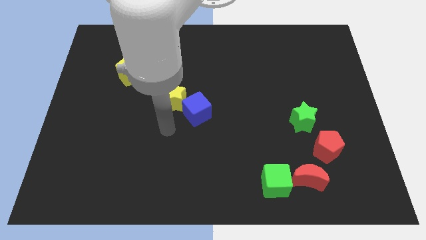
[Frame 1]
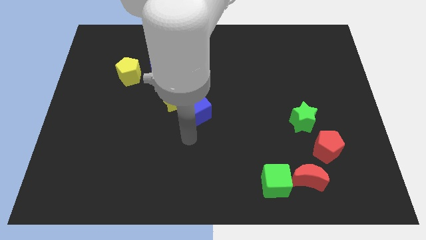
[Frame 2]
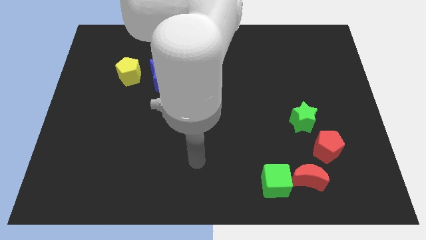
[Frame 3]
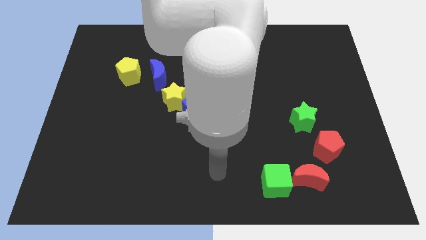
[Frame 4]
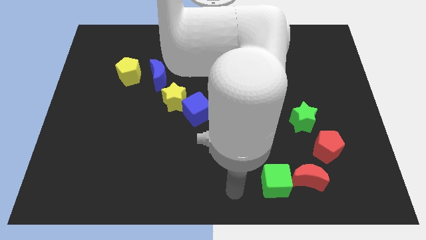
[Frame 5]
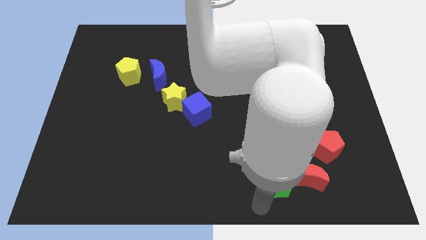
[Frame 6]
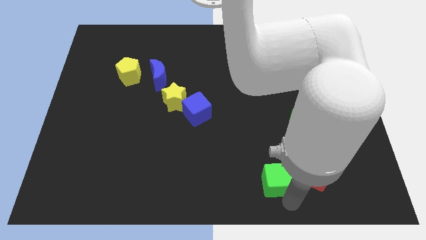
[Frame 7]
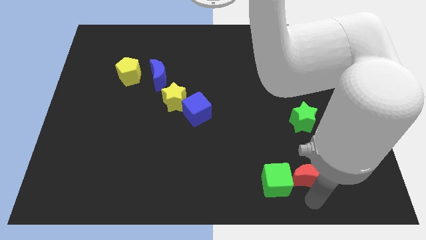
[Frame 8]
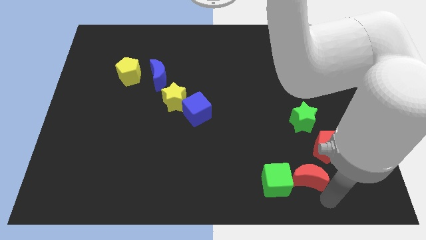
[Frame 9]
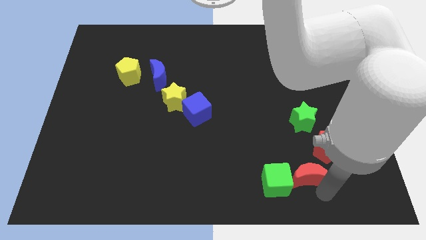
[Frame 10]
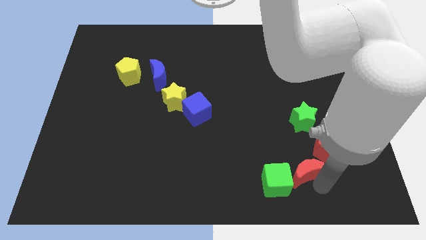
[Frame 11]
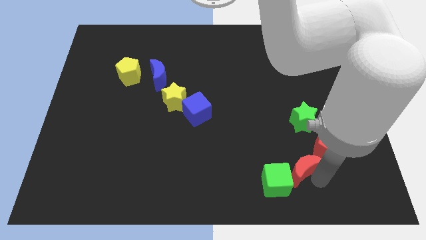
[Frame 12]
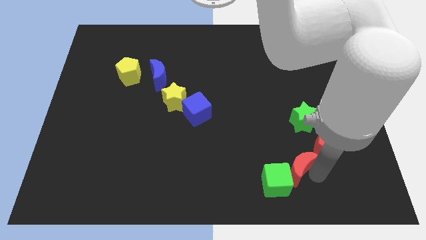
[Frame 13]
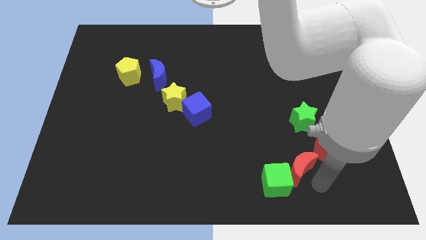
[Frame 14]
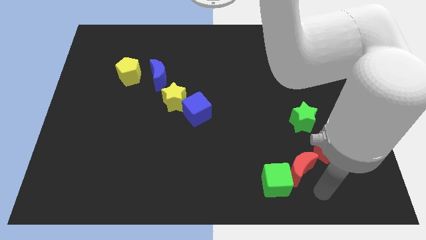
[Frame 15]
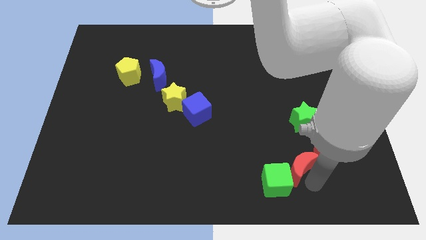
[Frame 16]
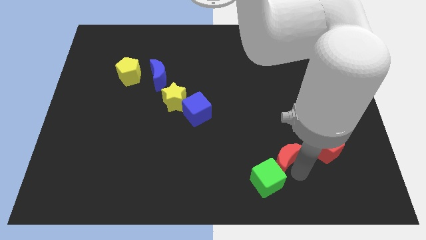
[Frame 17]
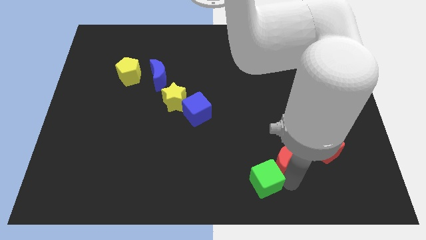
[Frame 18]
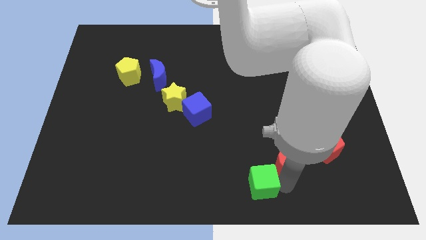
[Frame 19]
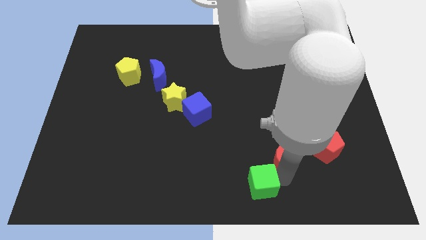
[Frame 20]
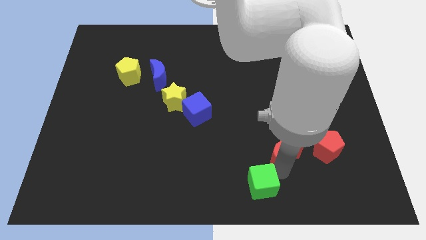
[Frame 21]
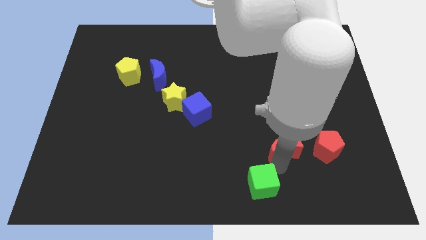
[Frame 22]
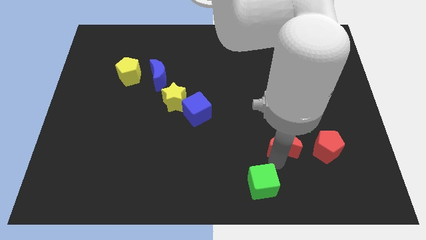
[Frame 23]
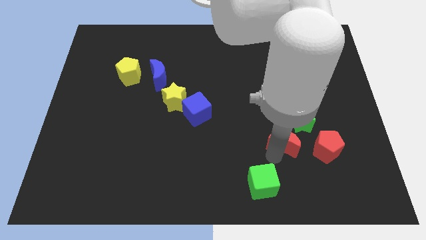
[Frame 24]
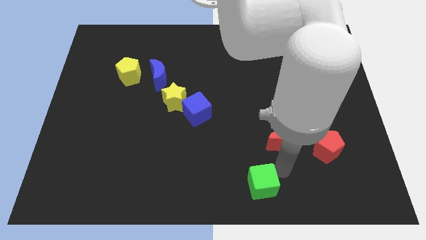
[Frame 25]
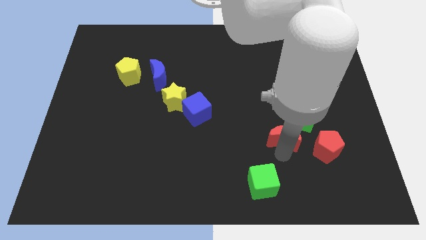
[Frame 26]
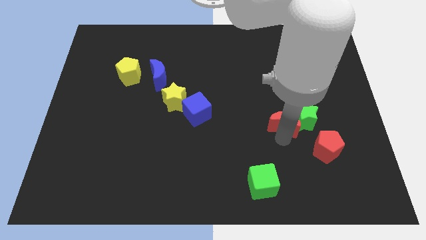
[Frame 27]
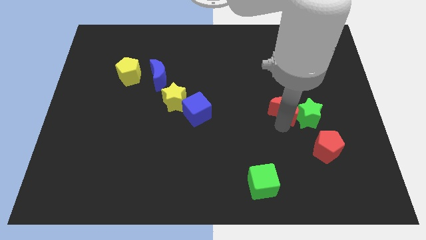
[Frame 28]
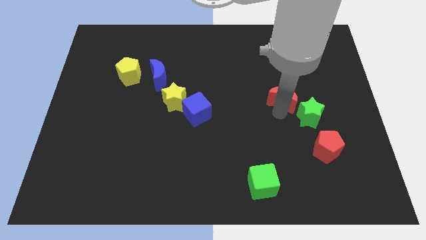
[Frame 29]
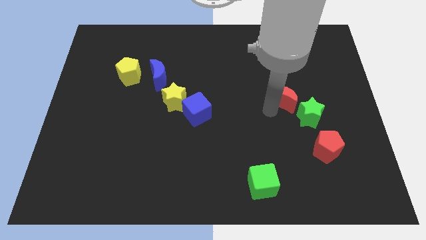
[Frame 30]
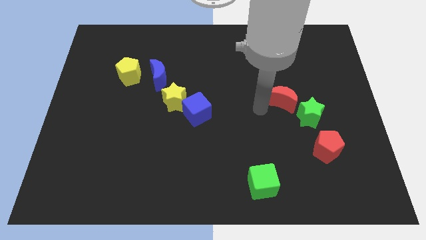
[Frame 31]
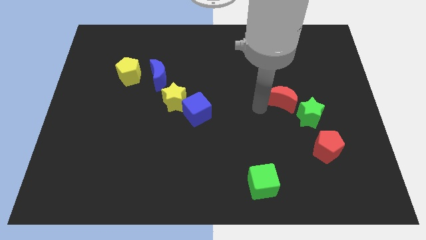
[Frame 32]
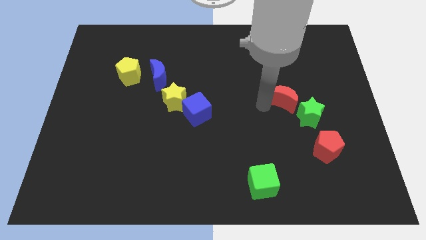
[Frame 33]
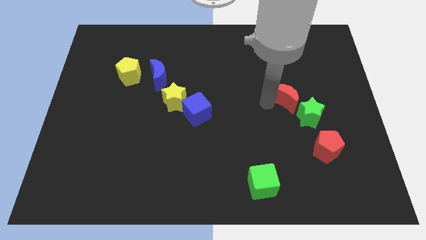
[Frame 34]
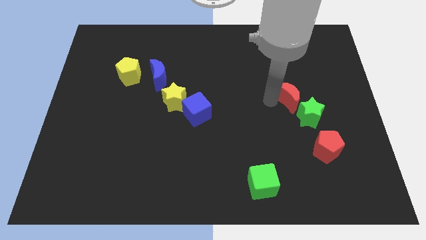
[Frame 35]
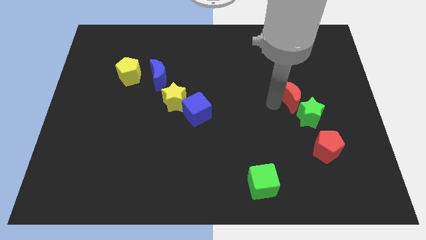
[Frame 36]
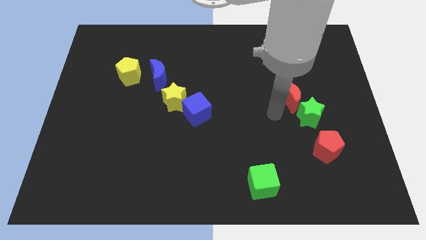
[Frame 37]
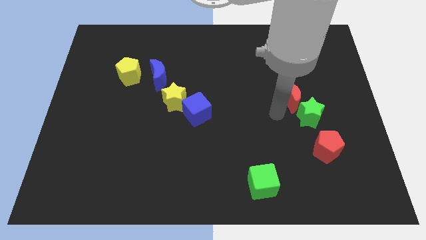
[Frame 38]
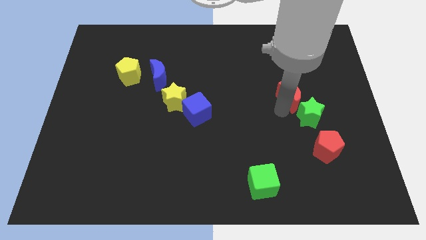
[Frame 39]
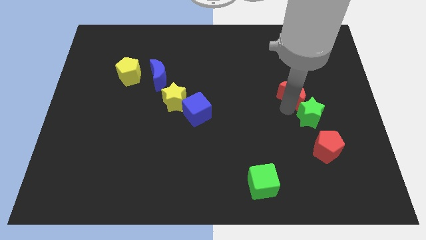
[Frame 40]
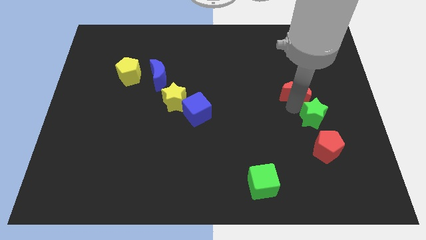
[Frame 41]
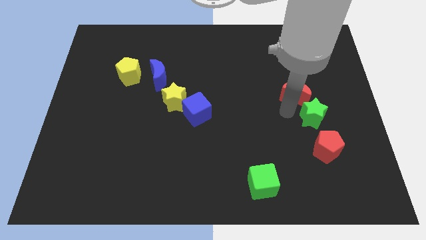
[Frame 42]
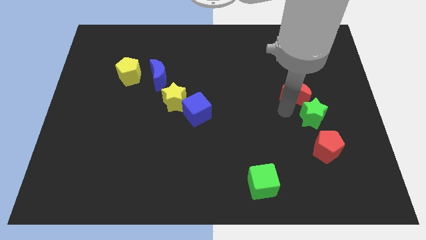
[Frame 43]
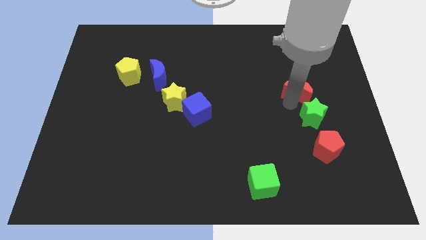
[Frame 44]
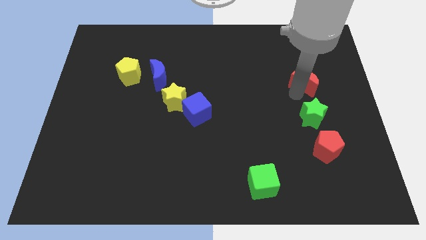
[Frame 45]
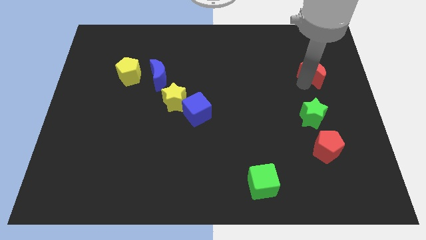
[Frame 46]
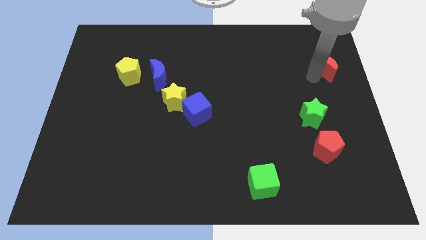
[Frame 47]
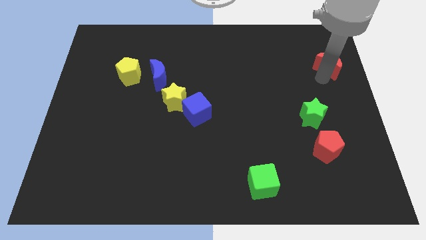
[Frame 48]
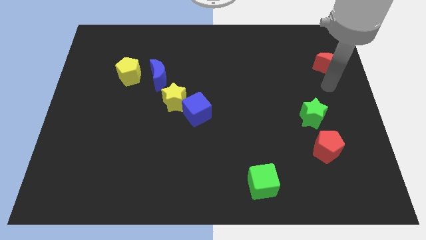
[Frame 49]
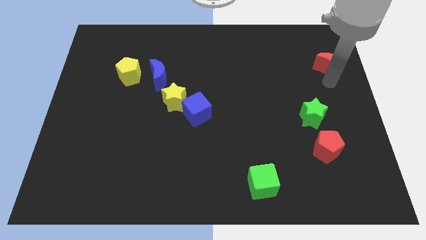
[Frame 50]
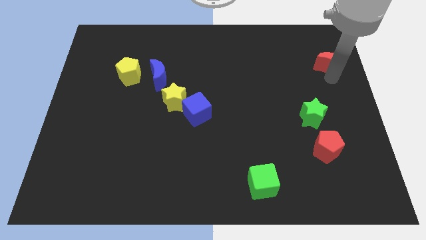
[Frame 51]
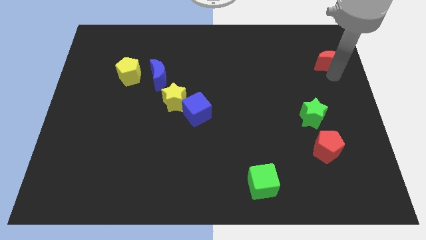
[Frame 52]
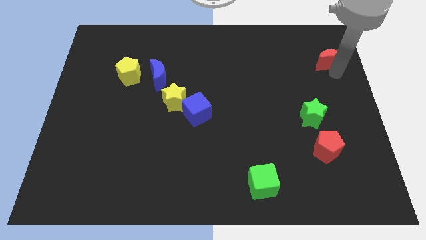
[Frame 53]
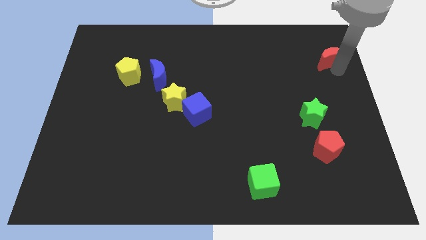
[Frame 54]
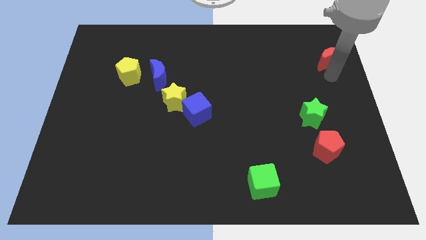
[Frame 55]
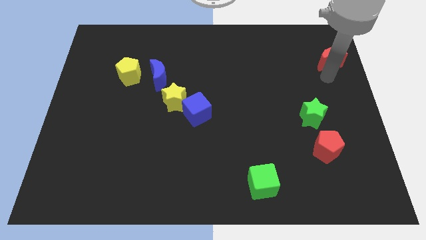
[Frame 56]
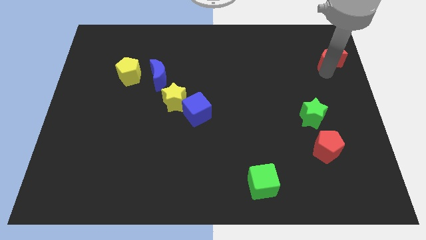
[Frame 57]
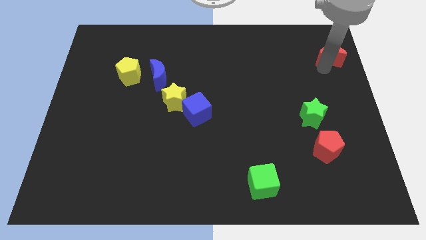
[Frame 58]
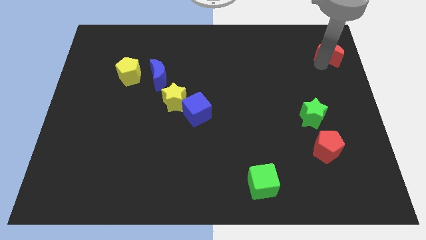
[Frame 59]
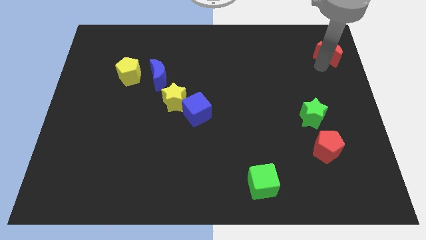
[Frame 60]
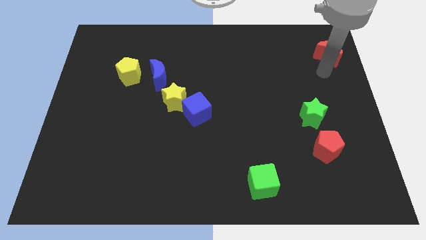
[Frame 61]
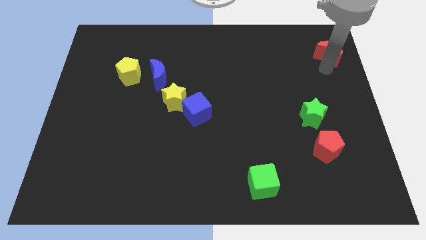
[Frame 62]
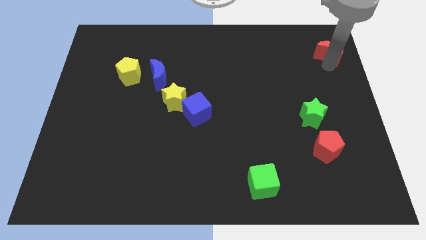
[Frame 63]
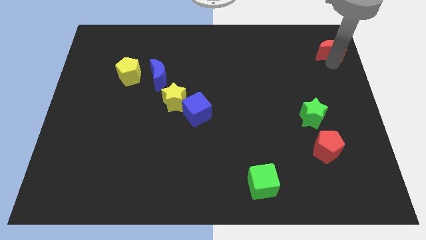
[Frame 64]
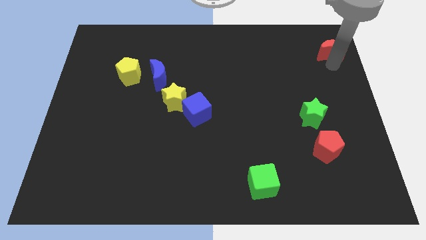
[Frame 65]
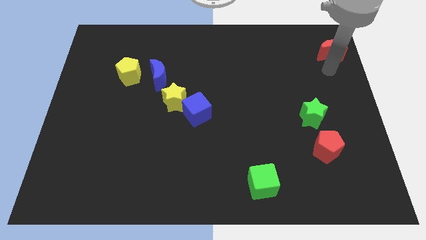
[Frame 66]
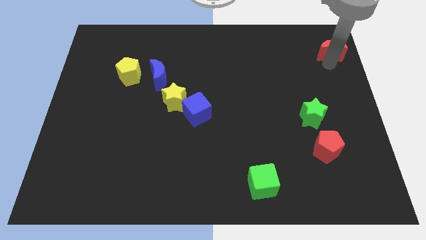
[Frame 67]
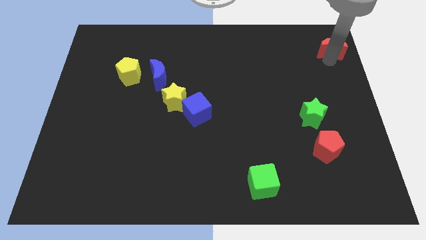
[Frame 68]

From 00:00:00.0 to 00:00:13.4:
move the red moon to the top right corner
